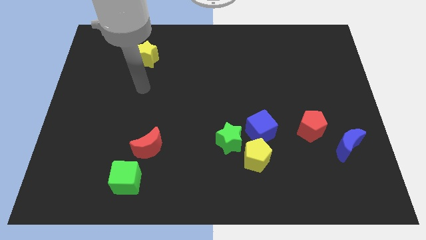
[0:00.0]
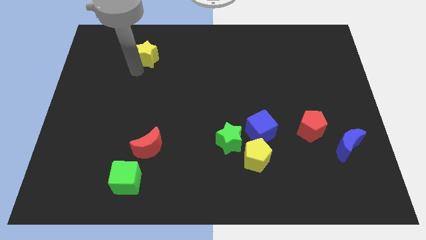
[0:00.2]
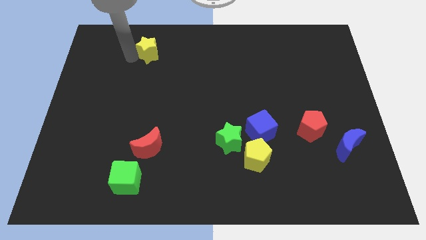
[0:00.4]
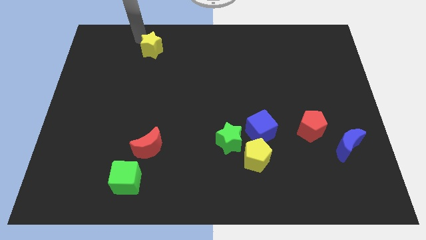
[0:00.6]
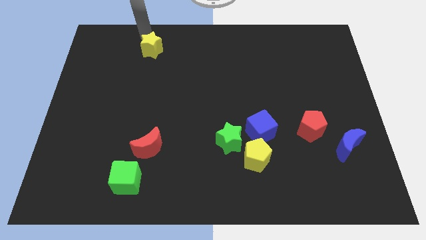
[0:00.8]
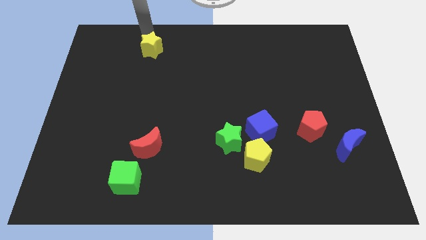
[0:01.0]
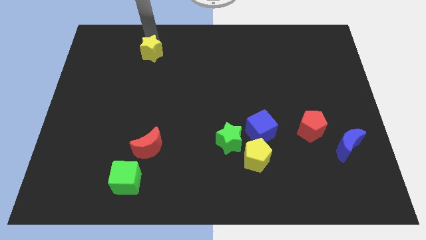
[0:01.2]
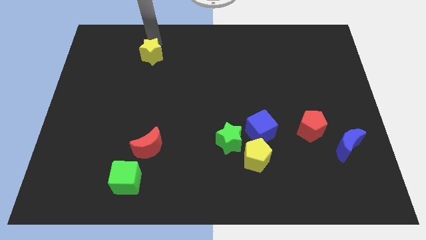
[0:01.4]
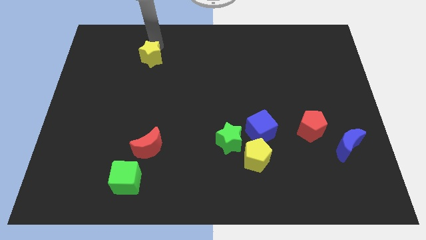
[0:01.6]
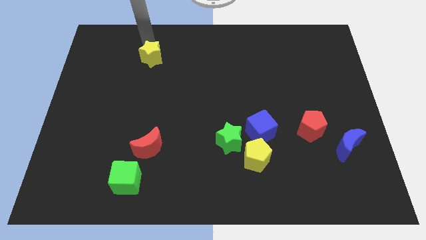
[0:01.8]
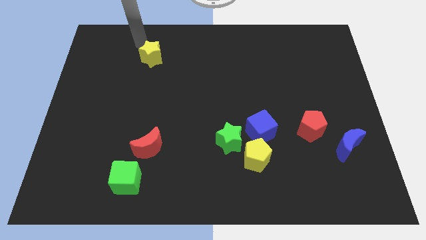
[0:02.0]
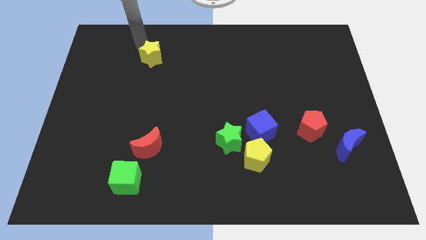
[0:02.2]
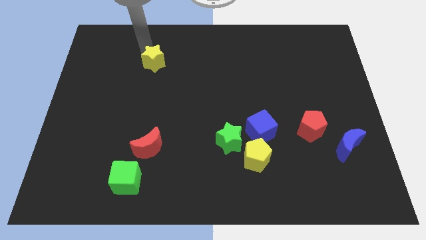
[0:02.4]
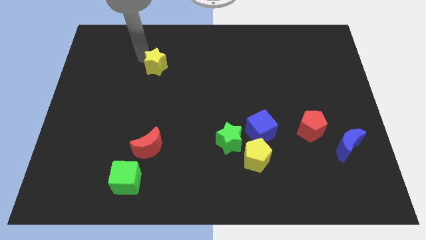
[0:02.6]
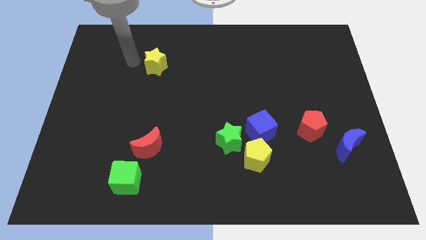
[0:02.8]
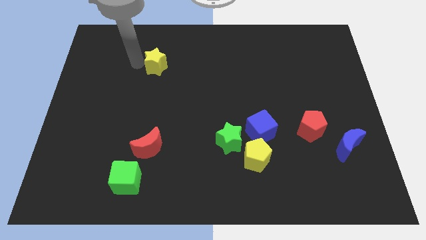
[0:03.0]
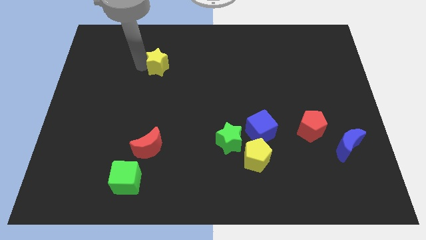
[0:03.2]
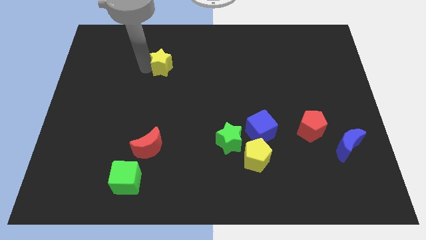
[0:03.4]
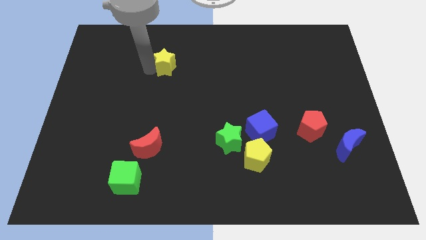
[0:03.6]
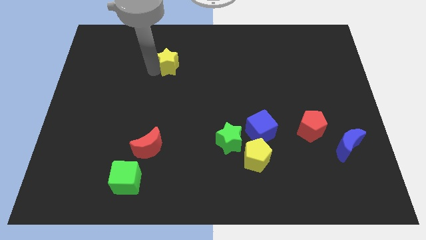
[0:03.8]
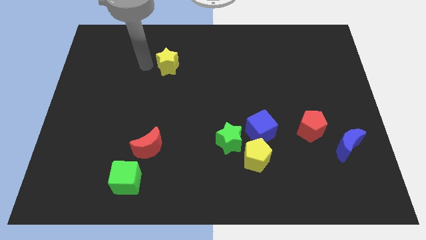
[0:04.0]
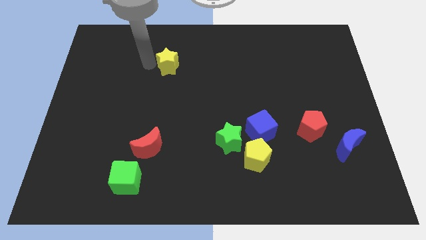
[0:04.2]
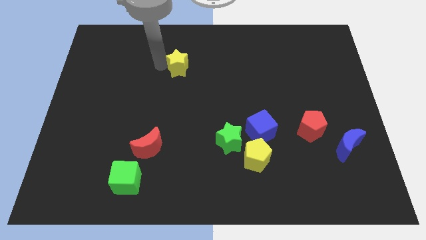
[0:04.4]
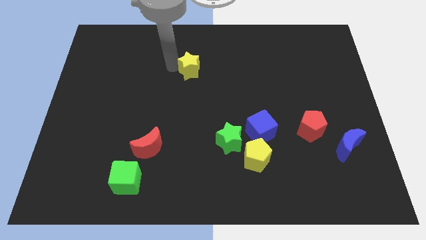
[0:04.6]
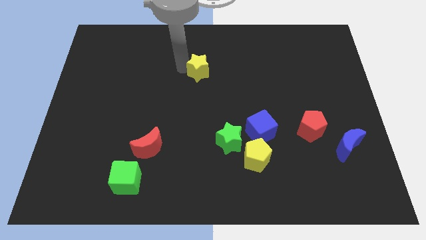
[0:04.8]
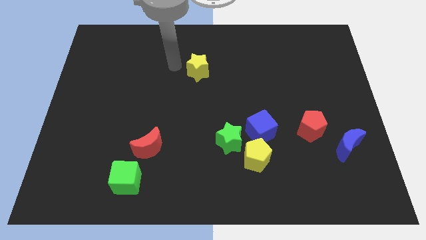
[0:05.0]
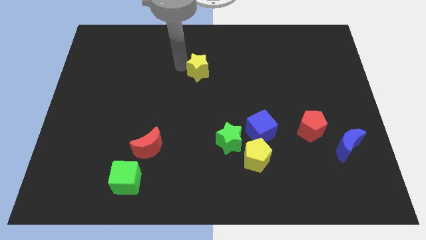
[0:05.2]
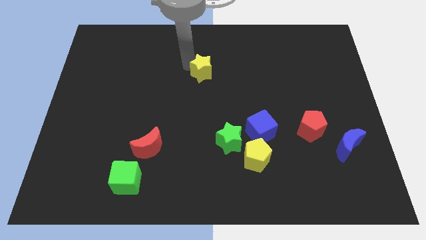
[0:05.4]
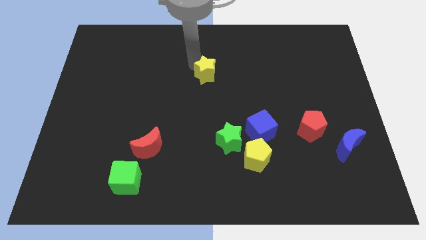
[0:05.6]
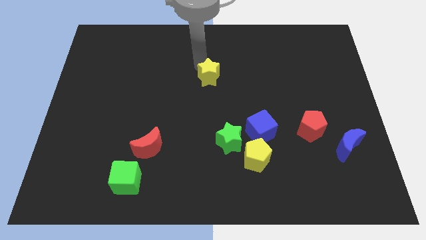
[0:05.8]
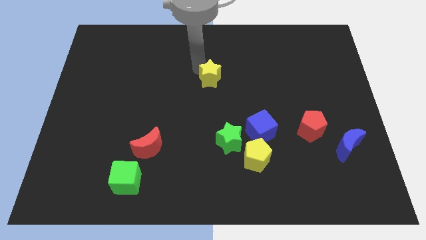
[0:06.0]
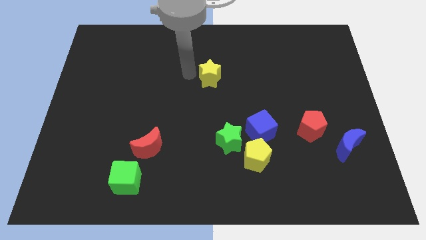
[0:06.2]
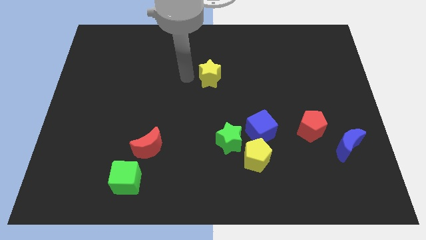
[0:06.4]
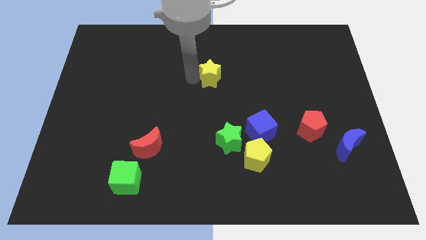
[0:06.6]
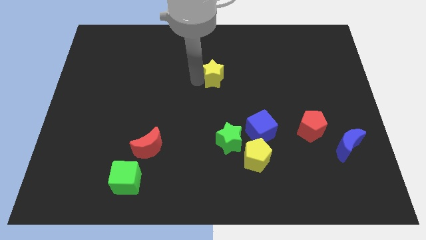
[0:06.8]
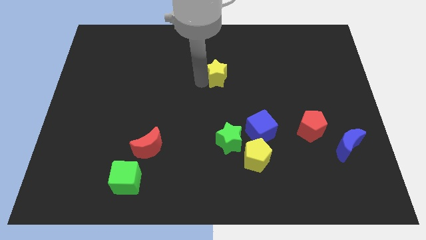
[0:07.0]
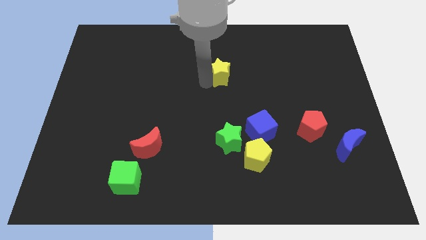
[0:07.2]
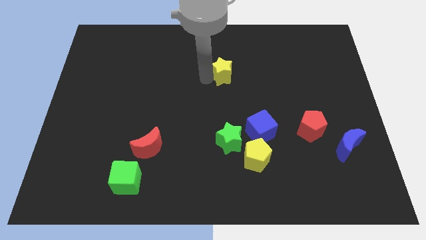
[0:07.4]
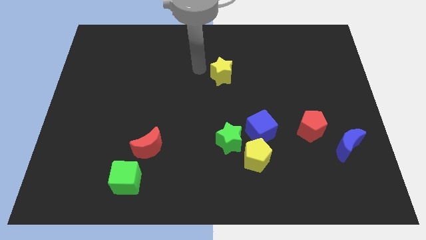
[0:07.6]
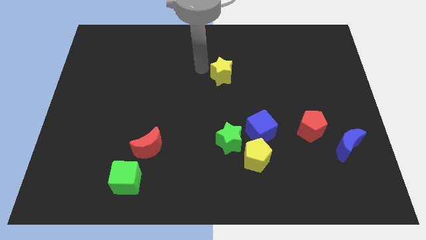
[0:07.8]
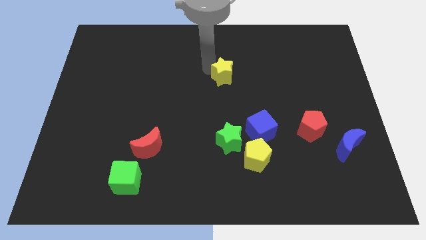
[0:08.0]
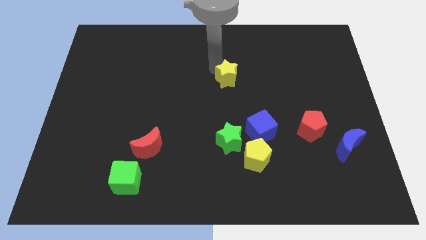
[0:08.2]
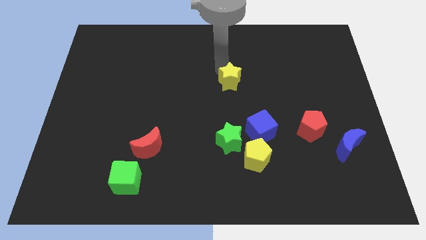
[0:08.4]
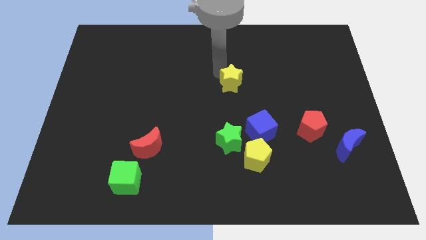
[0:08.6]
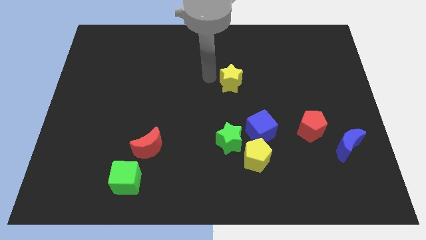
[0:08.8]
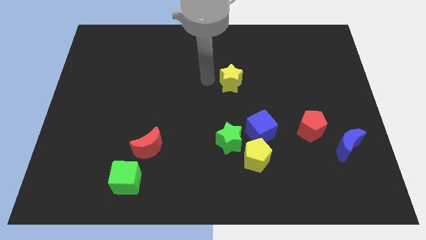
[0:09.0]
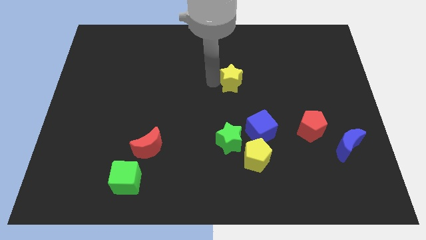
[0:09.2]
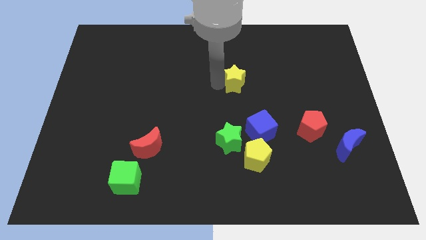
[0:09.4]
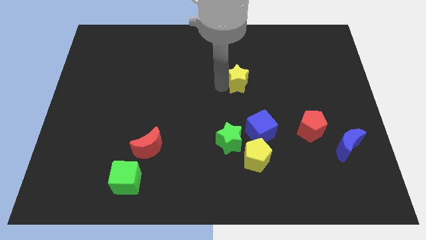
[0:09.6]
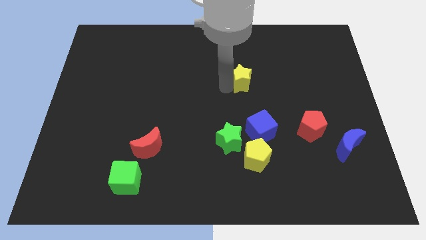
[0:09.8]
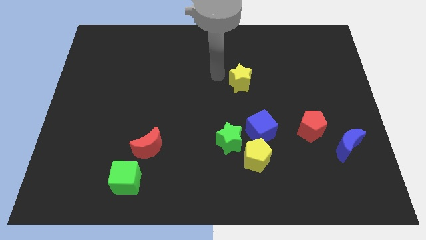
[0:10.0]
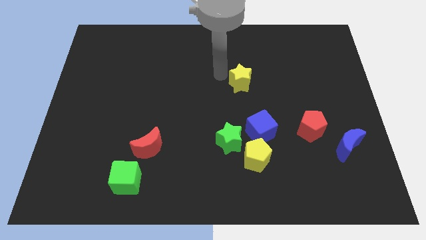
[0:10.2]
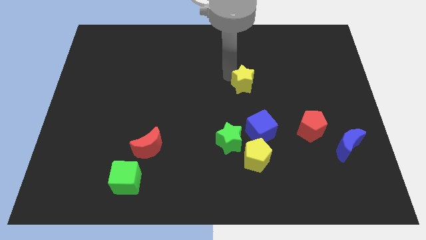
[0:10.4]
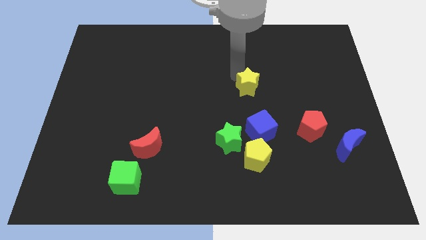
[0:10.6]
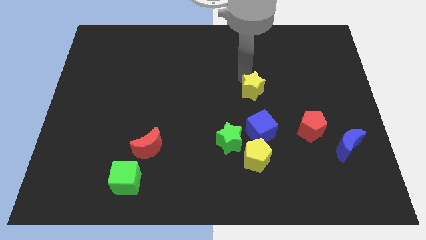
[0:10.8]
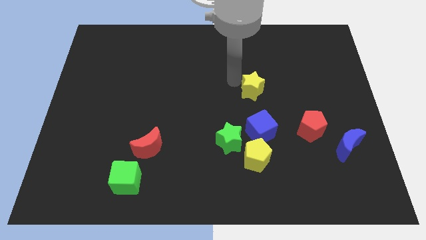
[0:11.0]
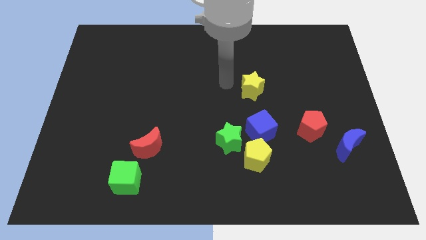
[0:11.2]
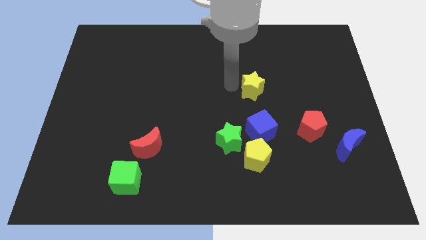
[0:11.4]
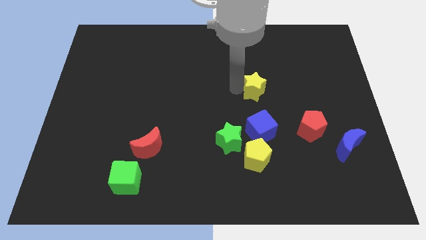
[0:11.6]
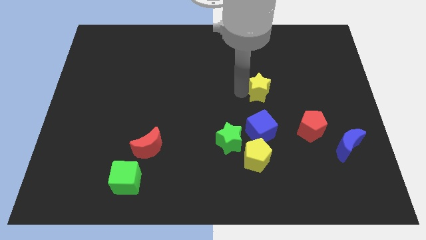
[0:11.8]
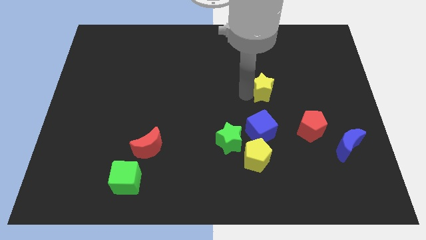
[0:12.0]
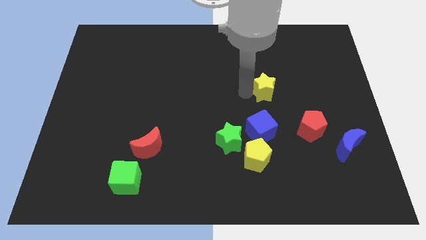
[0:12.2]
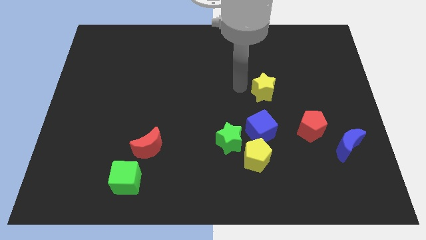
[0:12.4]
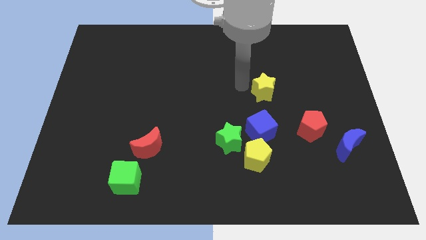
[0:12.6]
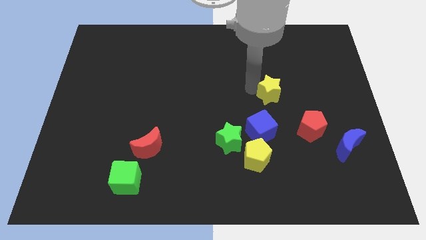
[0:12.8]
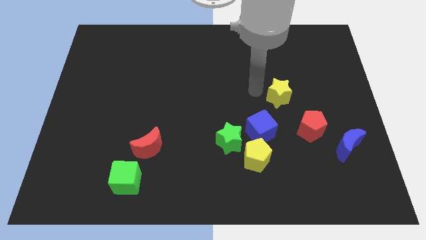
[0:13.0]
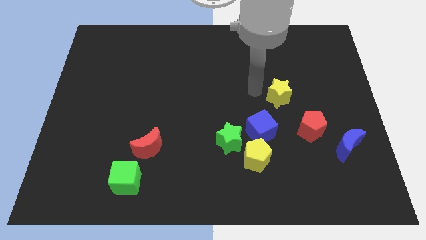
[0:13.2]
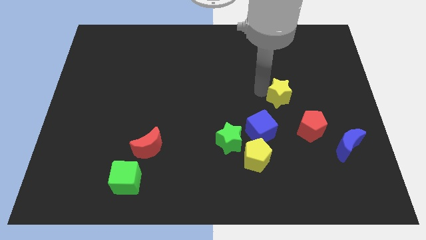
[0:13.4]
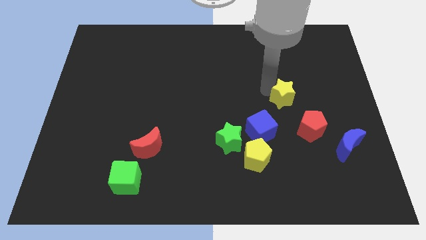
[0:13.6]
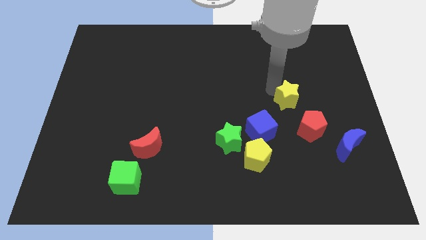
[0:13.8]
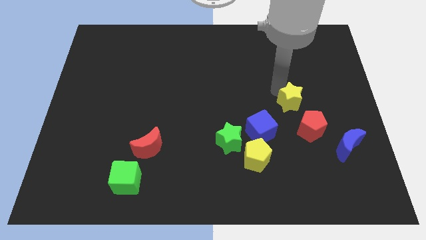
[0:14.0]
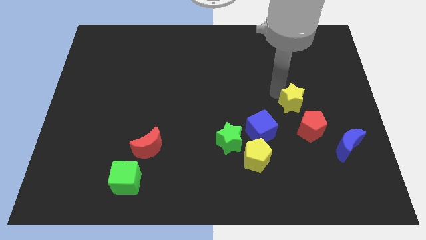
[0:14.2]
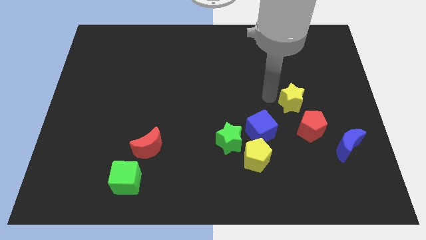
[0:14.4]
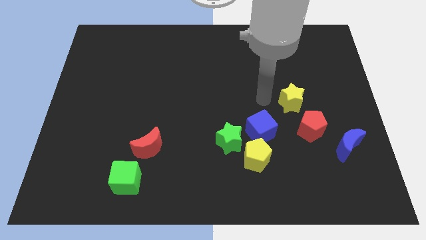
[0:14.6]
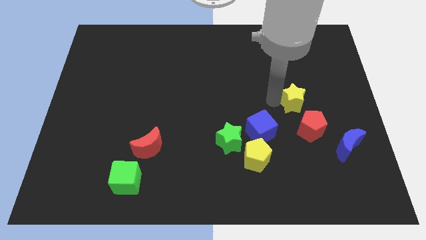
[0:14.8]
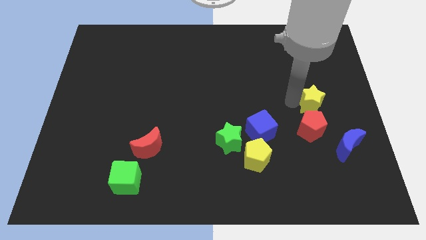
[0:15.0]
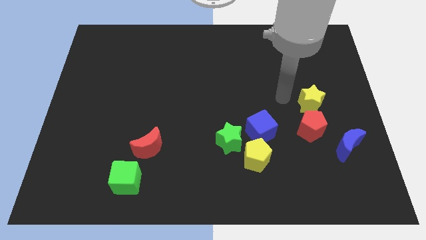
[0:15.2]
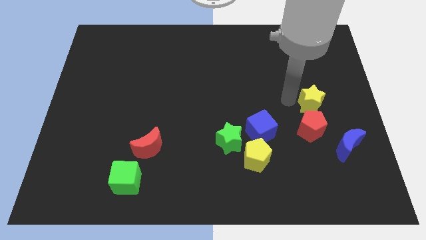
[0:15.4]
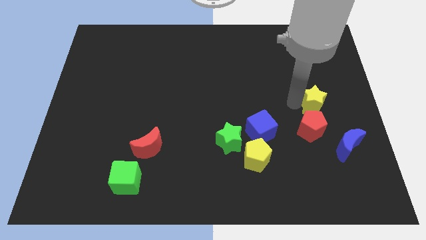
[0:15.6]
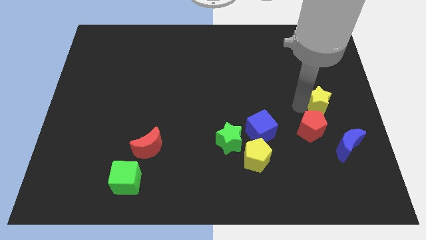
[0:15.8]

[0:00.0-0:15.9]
slide the yellow star above the blue moon
